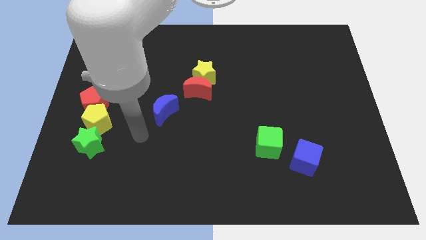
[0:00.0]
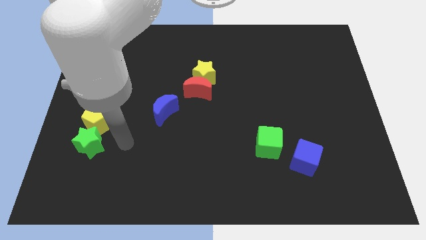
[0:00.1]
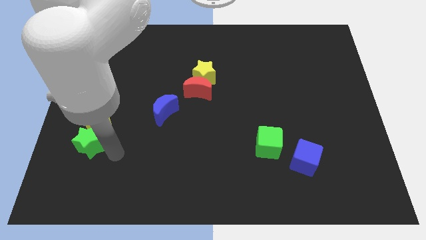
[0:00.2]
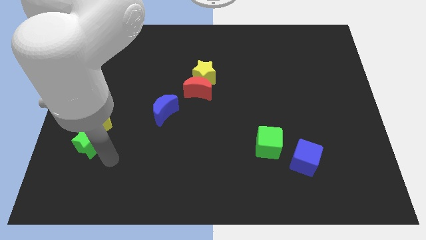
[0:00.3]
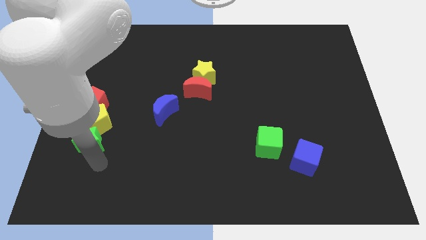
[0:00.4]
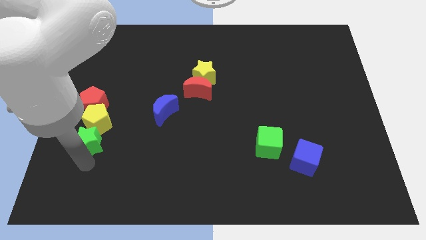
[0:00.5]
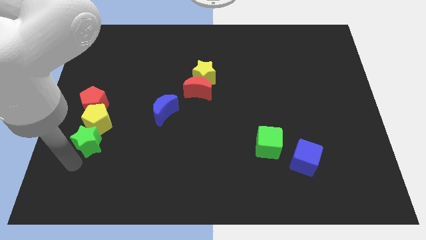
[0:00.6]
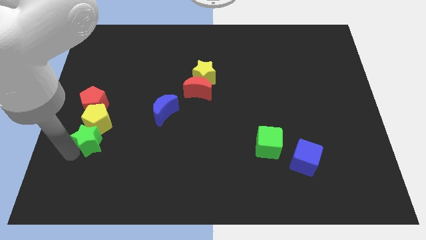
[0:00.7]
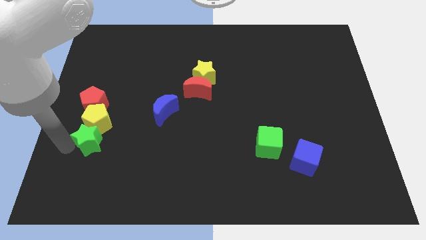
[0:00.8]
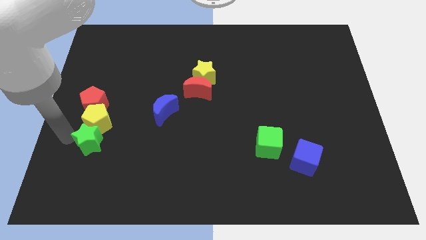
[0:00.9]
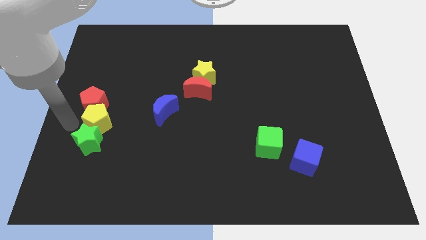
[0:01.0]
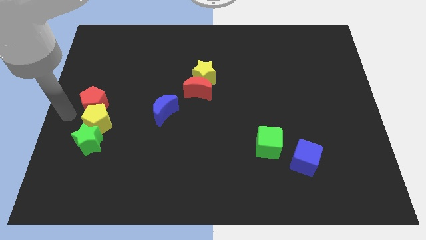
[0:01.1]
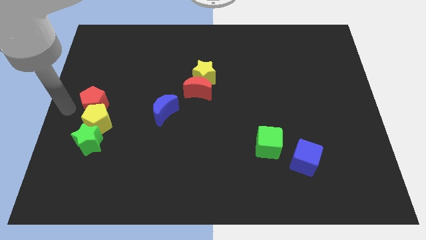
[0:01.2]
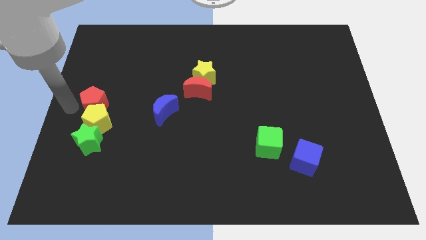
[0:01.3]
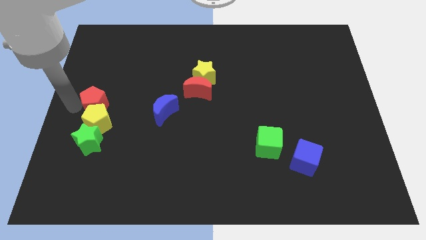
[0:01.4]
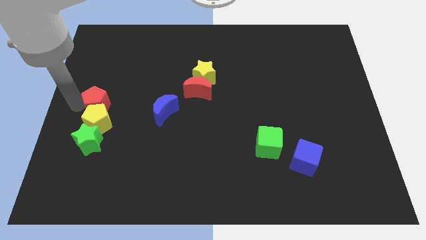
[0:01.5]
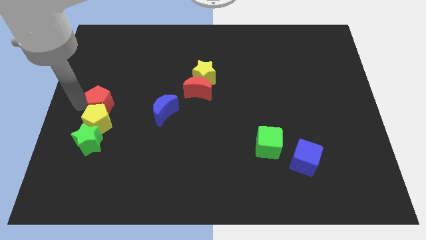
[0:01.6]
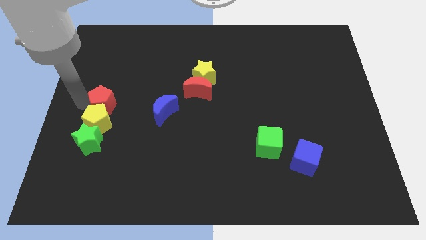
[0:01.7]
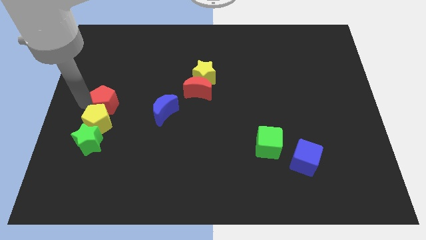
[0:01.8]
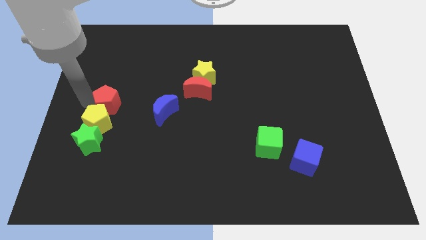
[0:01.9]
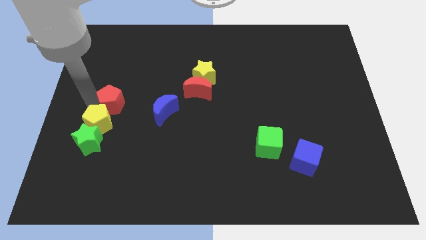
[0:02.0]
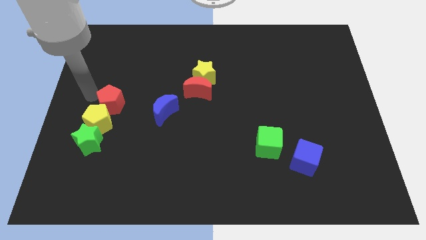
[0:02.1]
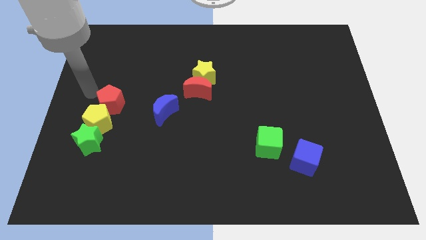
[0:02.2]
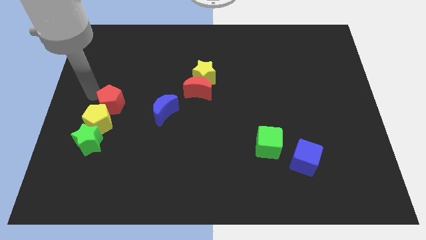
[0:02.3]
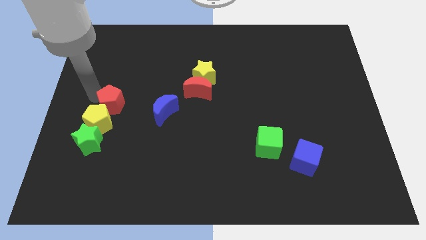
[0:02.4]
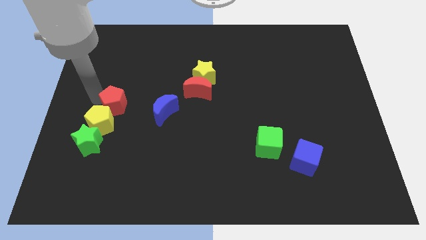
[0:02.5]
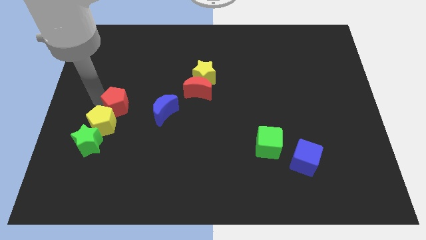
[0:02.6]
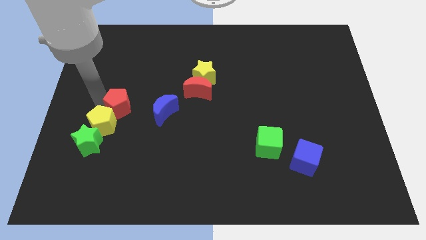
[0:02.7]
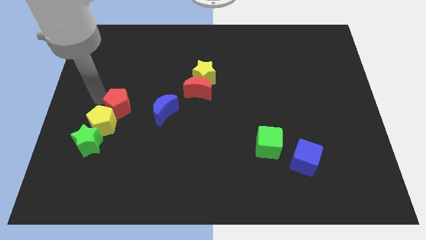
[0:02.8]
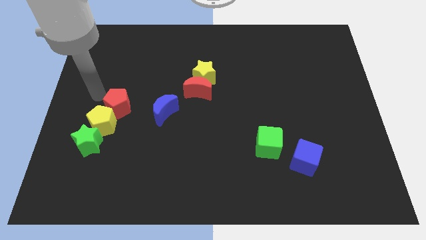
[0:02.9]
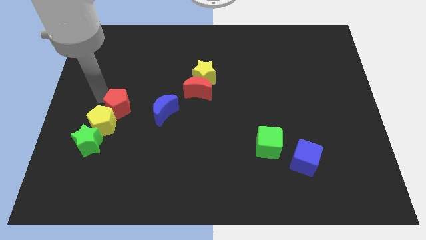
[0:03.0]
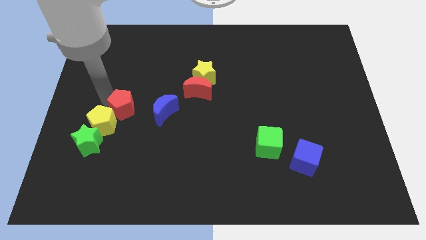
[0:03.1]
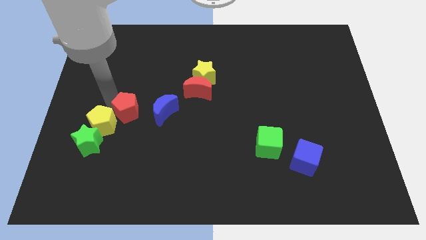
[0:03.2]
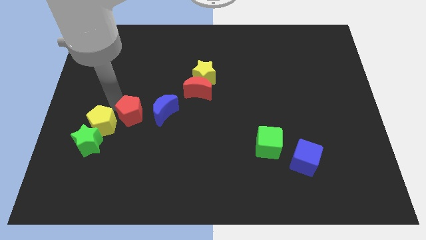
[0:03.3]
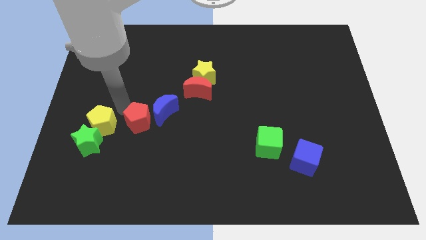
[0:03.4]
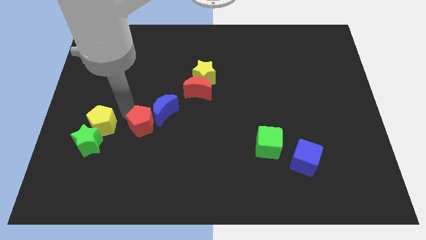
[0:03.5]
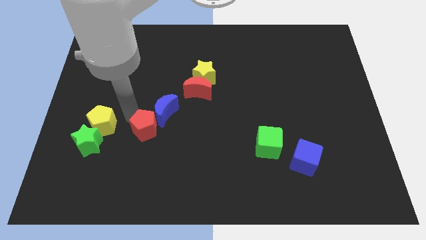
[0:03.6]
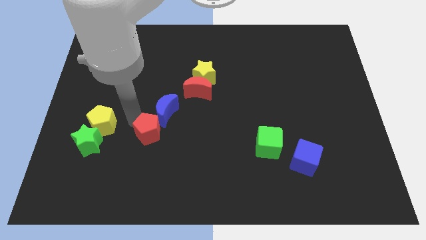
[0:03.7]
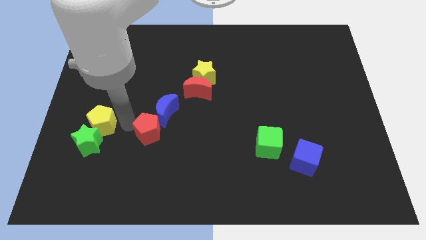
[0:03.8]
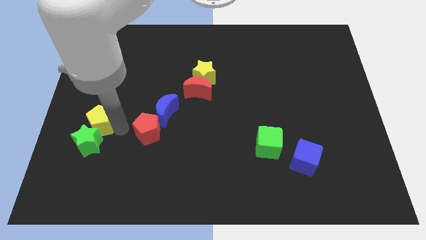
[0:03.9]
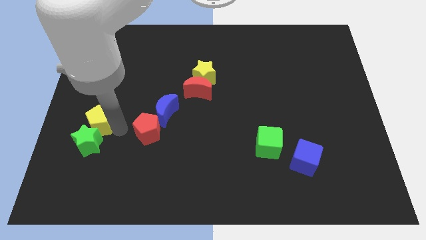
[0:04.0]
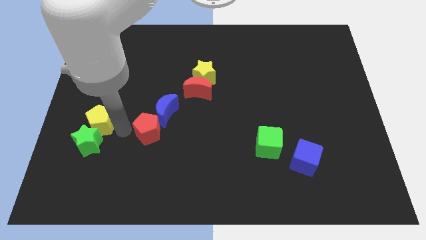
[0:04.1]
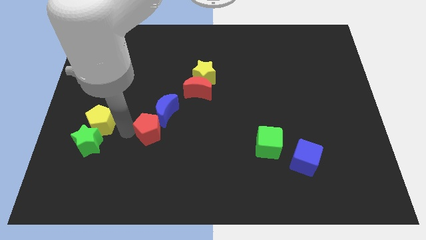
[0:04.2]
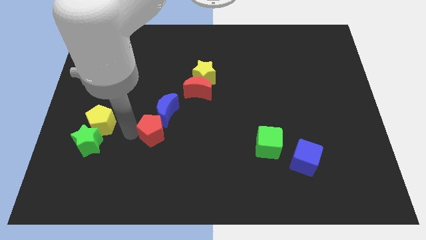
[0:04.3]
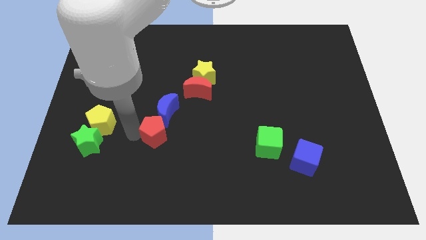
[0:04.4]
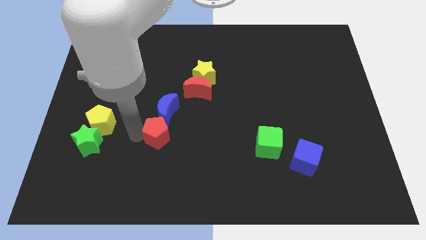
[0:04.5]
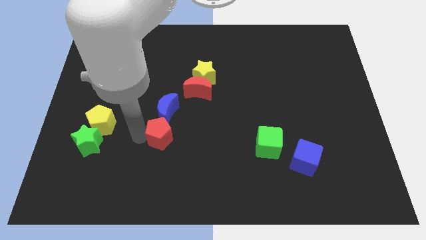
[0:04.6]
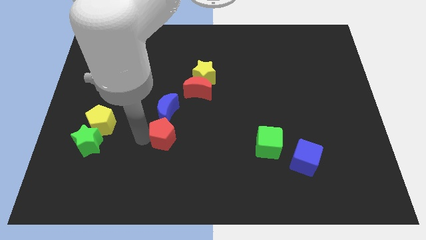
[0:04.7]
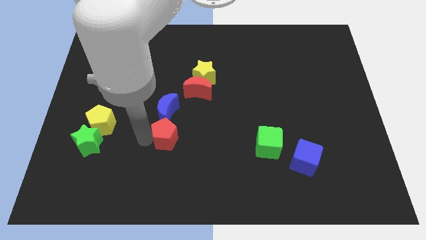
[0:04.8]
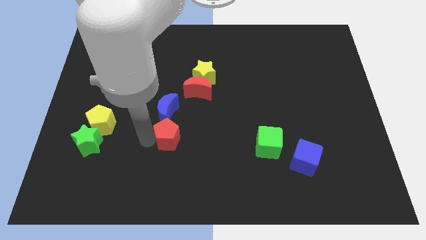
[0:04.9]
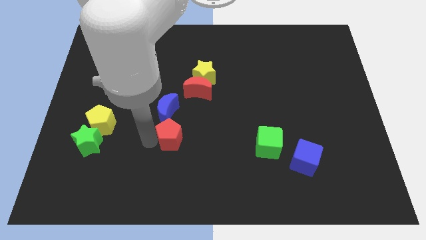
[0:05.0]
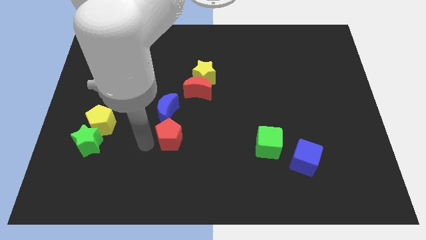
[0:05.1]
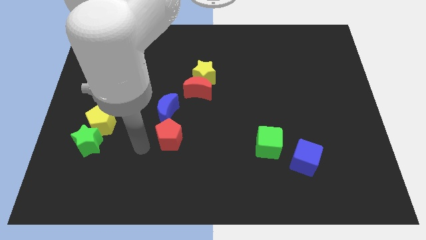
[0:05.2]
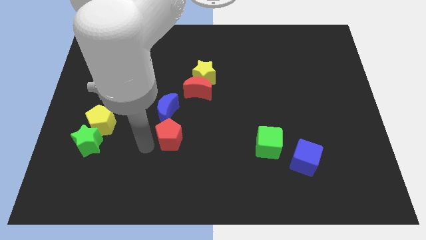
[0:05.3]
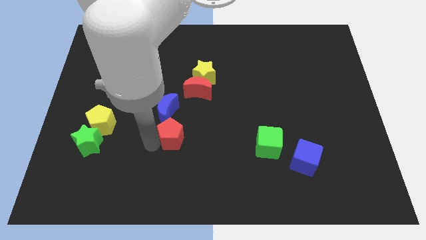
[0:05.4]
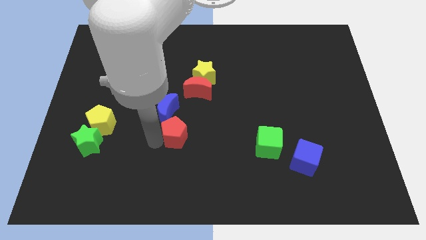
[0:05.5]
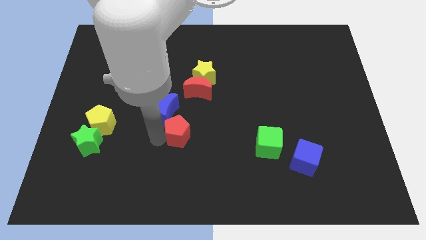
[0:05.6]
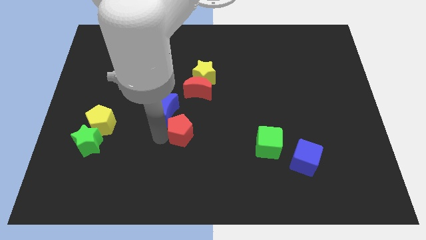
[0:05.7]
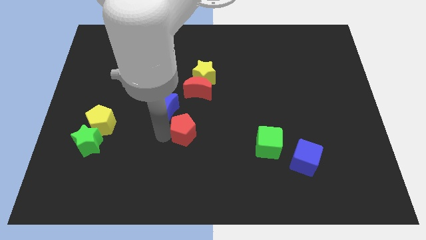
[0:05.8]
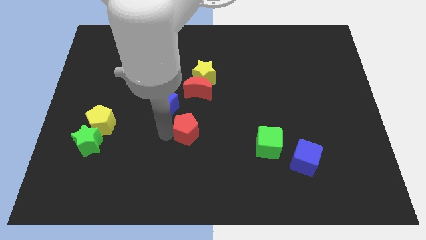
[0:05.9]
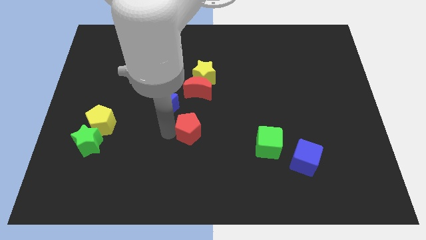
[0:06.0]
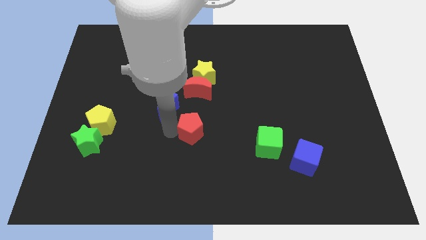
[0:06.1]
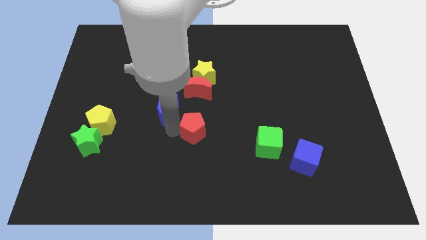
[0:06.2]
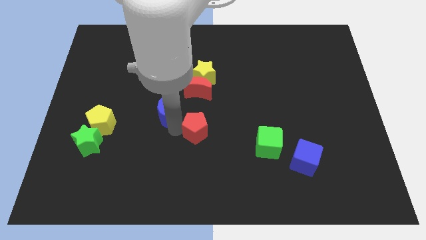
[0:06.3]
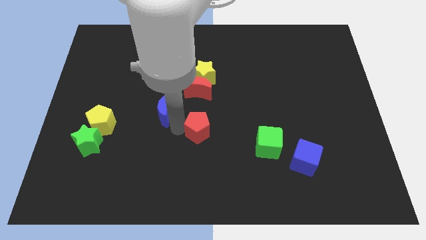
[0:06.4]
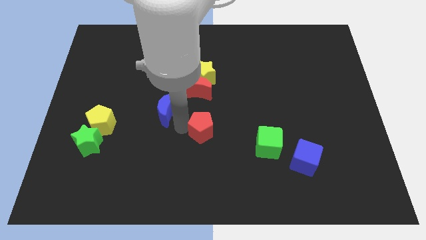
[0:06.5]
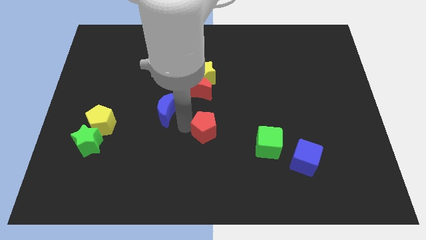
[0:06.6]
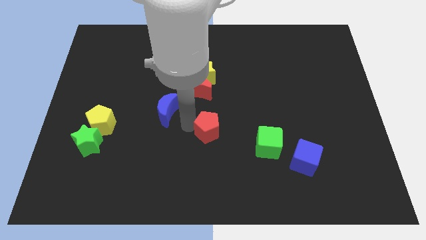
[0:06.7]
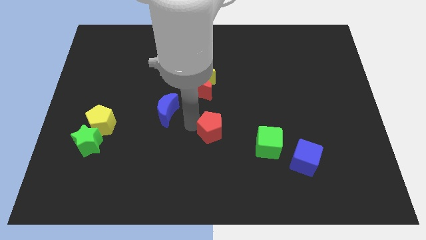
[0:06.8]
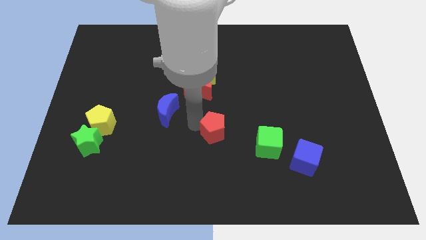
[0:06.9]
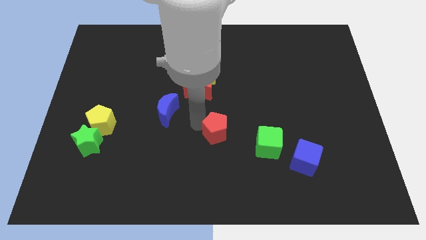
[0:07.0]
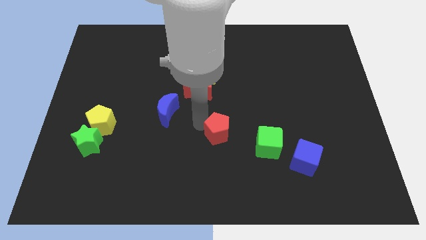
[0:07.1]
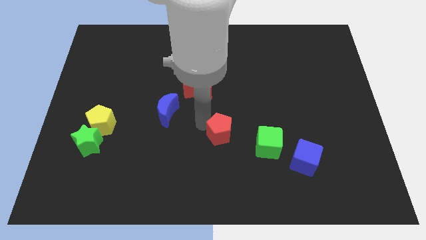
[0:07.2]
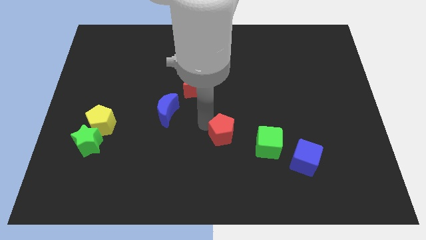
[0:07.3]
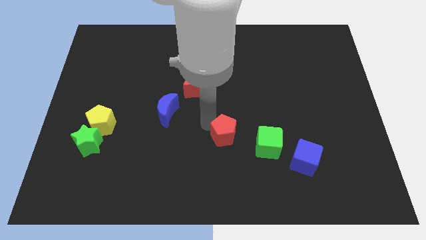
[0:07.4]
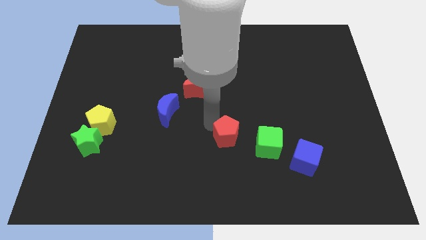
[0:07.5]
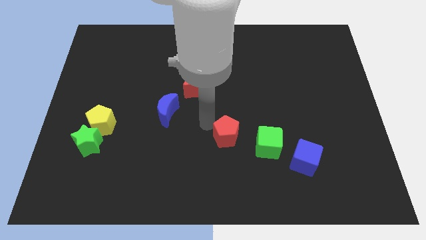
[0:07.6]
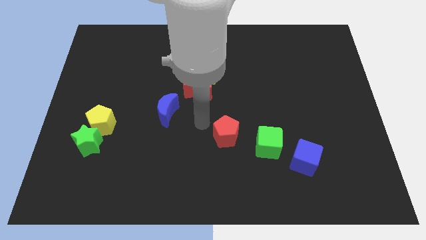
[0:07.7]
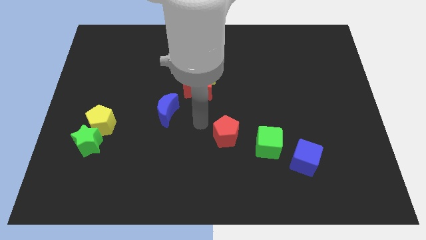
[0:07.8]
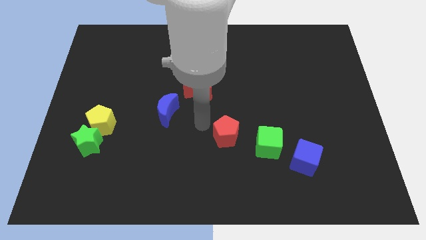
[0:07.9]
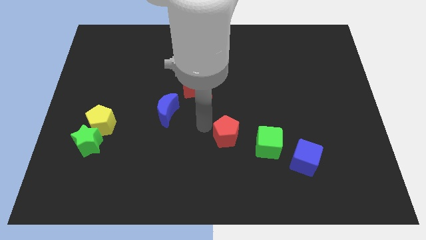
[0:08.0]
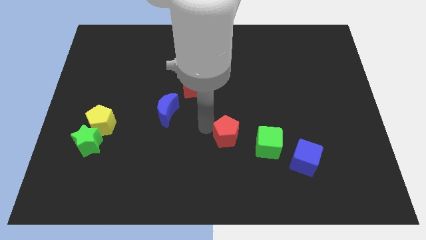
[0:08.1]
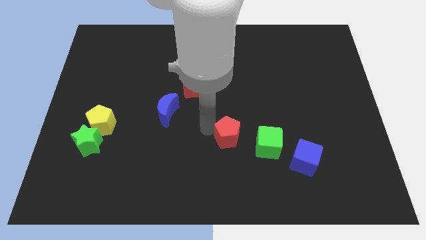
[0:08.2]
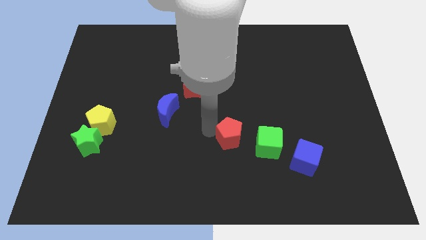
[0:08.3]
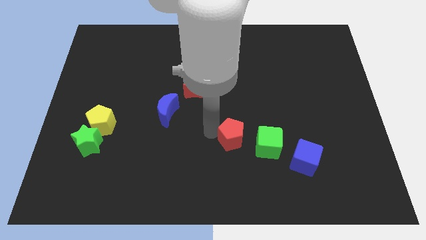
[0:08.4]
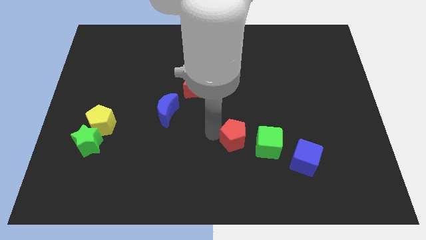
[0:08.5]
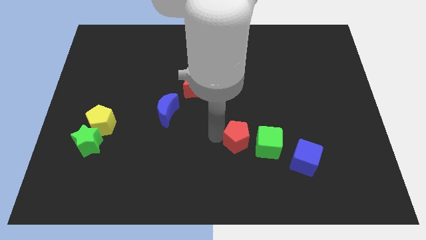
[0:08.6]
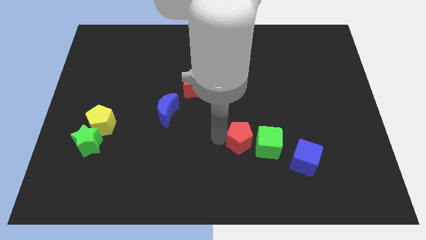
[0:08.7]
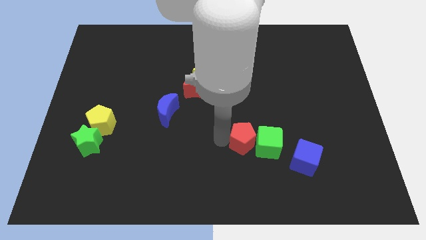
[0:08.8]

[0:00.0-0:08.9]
move the red pentagon towards the green cube

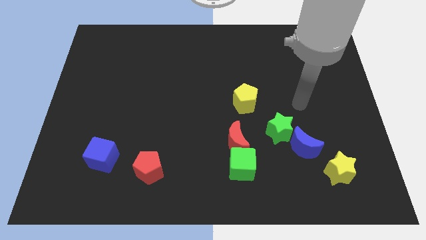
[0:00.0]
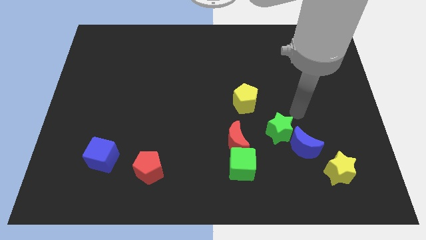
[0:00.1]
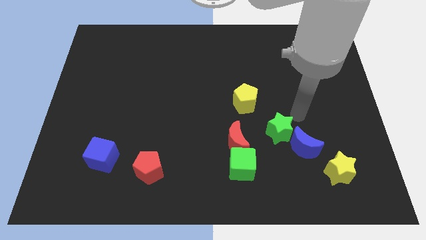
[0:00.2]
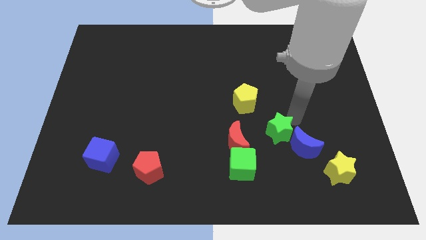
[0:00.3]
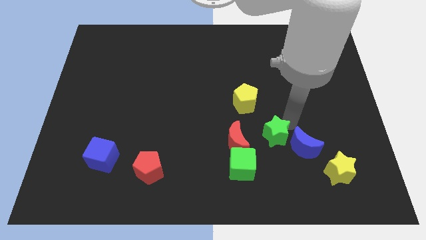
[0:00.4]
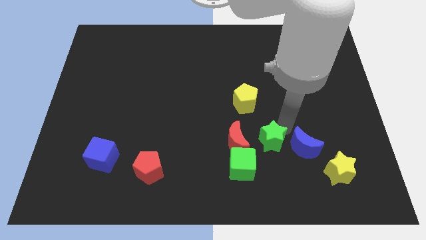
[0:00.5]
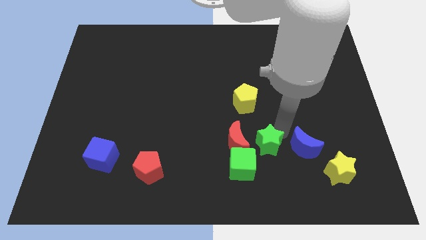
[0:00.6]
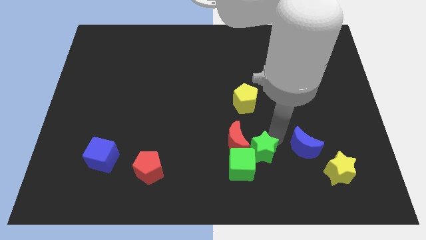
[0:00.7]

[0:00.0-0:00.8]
move the green star next to the green cube
